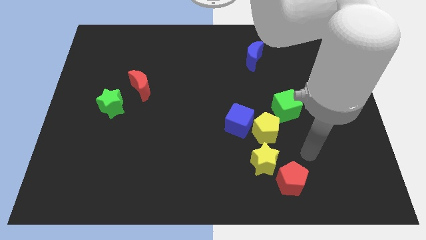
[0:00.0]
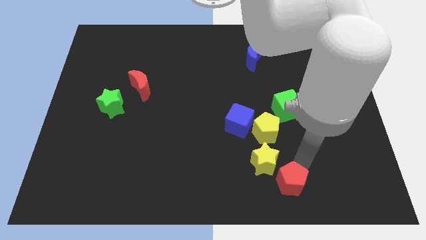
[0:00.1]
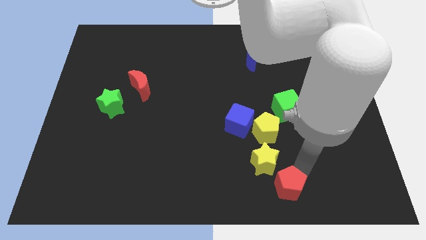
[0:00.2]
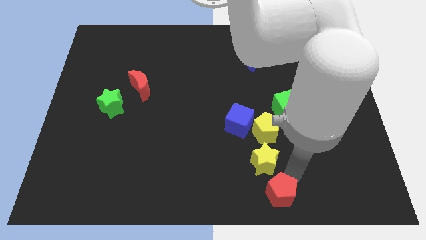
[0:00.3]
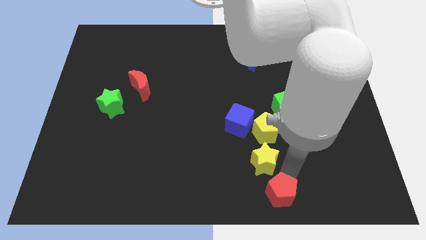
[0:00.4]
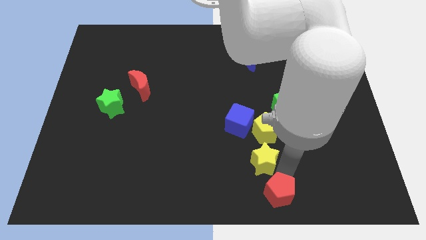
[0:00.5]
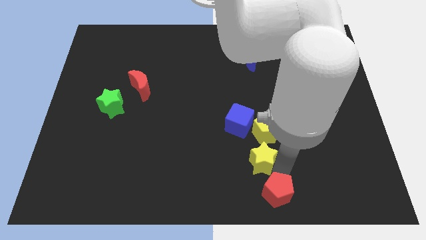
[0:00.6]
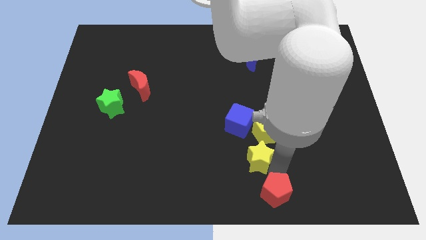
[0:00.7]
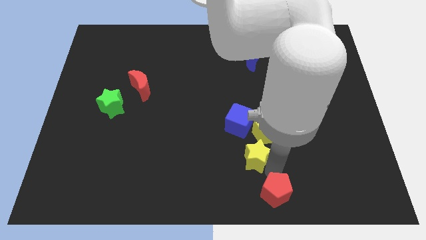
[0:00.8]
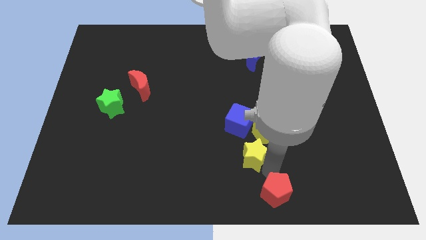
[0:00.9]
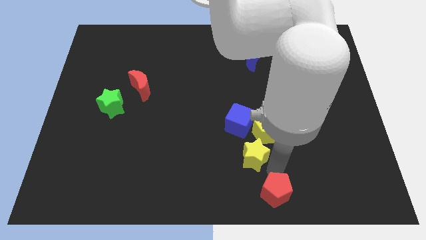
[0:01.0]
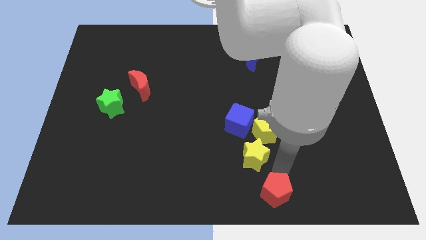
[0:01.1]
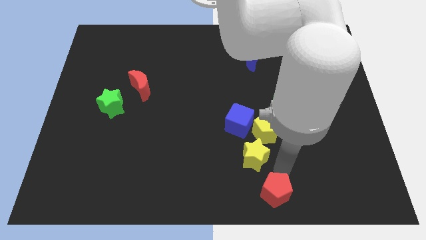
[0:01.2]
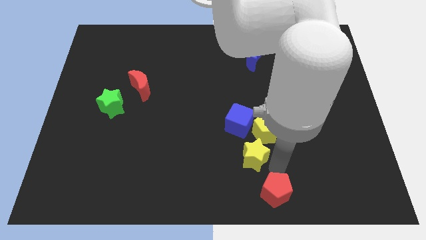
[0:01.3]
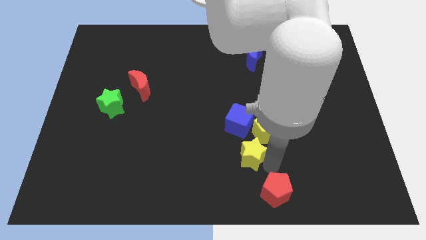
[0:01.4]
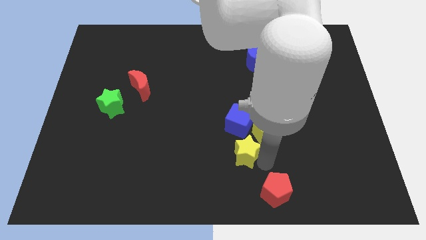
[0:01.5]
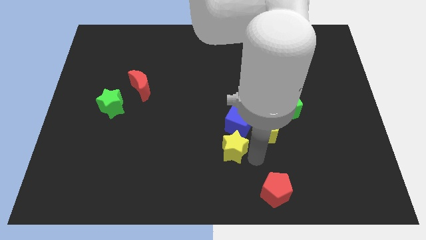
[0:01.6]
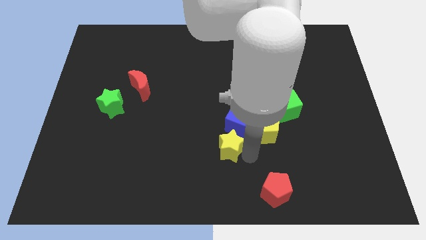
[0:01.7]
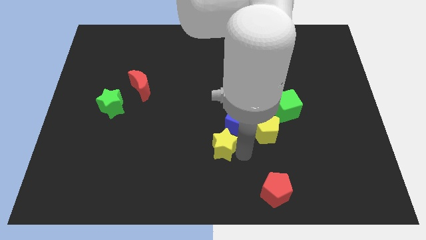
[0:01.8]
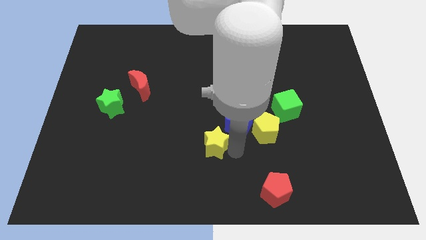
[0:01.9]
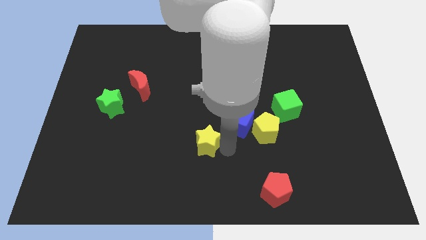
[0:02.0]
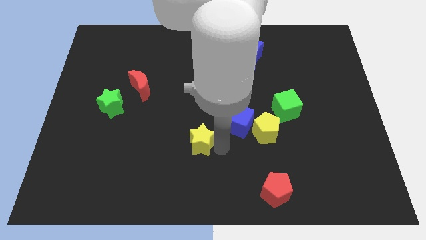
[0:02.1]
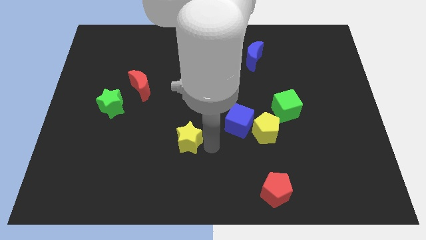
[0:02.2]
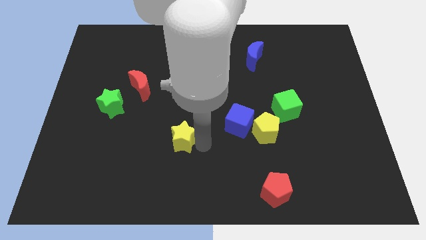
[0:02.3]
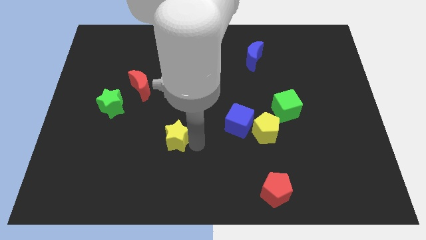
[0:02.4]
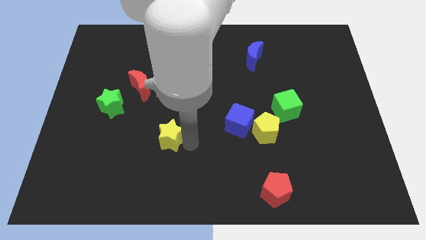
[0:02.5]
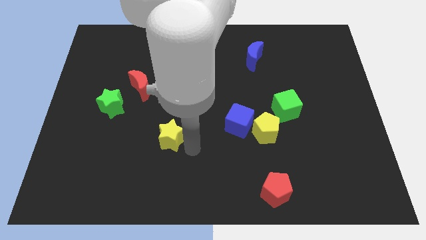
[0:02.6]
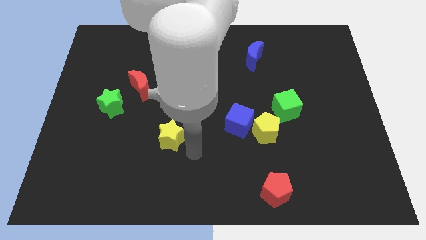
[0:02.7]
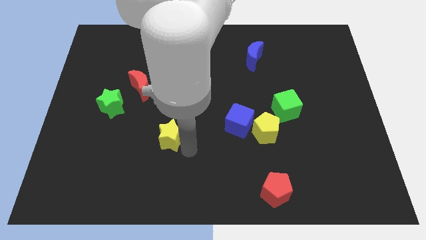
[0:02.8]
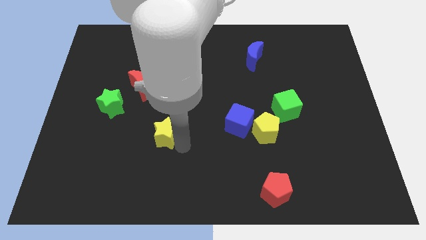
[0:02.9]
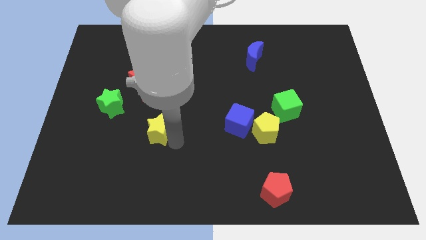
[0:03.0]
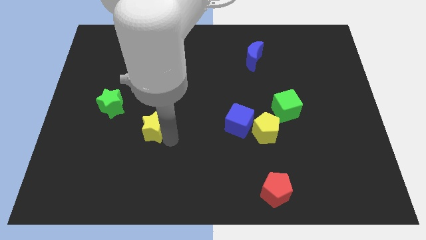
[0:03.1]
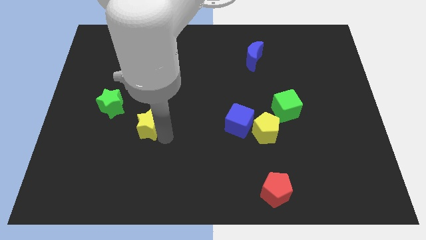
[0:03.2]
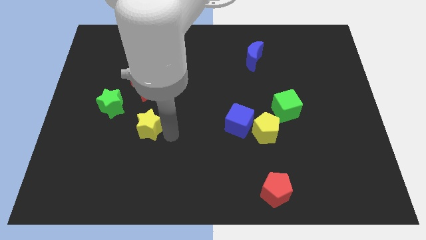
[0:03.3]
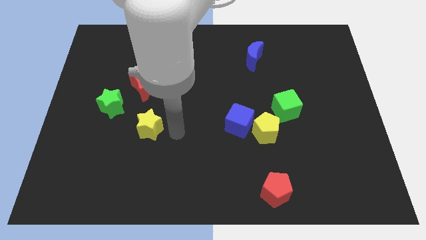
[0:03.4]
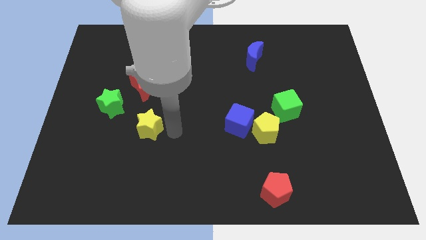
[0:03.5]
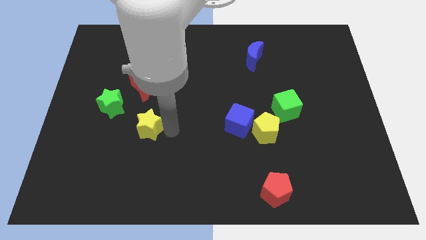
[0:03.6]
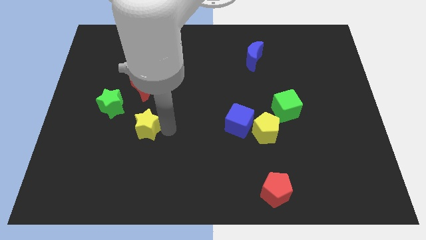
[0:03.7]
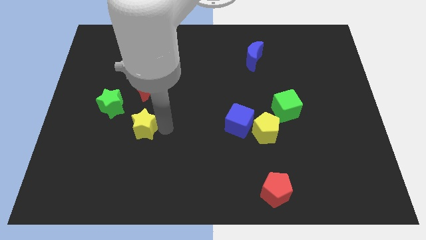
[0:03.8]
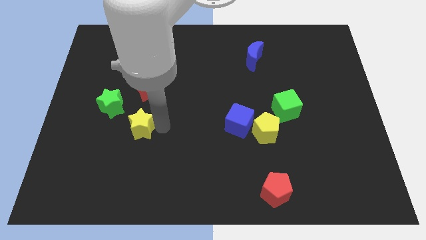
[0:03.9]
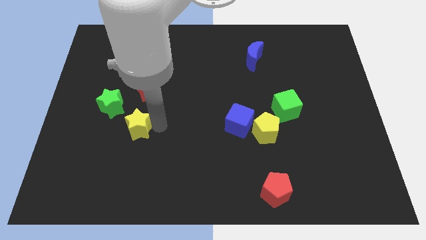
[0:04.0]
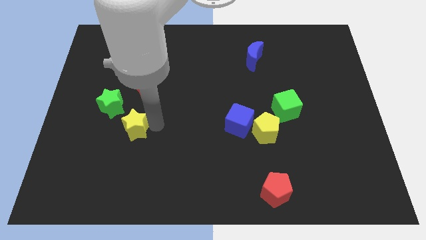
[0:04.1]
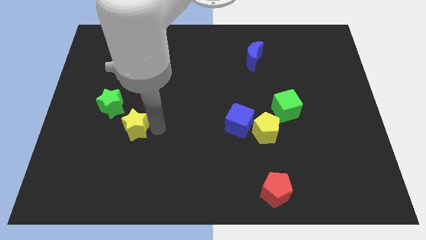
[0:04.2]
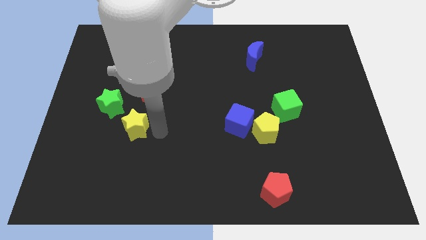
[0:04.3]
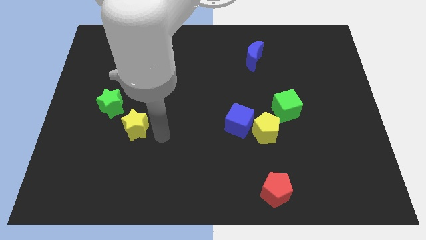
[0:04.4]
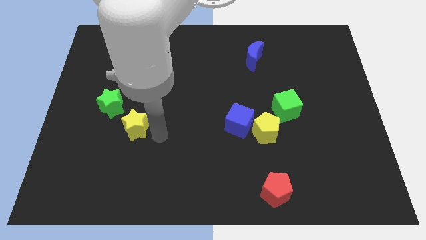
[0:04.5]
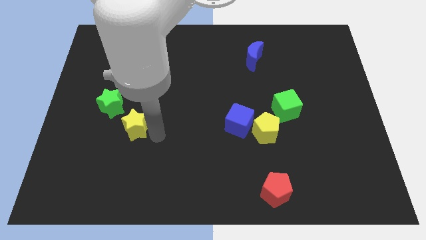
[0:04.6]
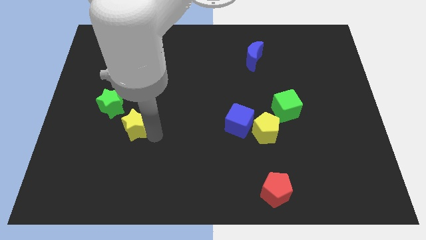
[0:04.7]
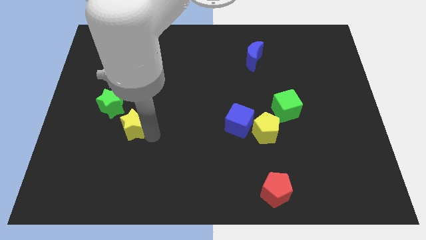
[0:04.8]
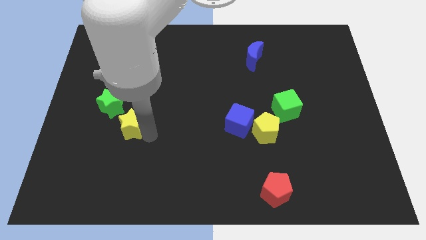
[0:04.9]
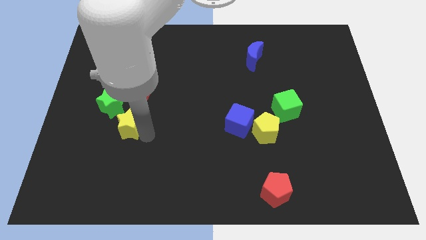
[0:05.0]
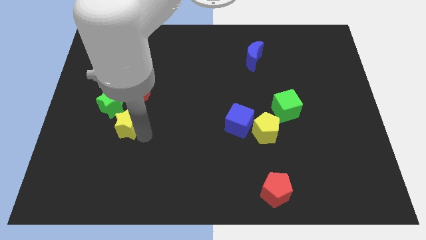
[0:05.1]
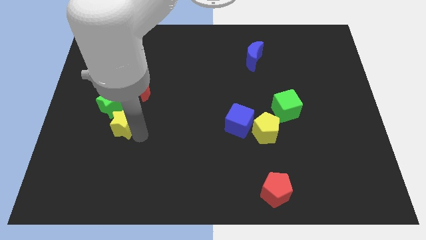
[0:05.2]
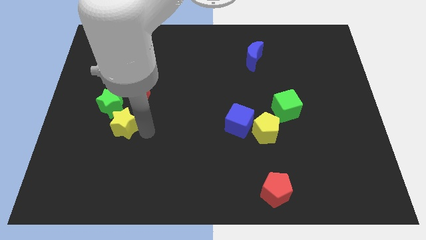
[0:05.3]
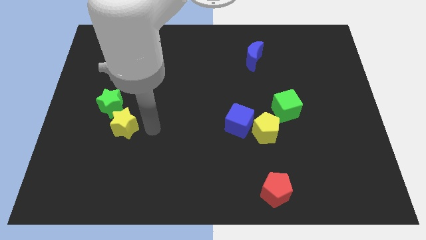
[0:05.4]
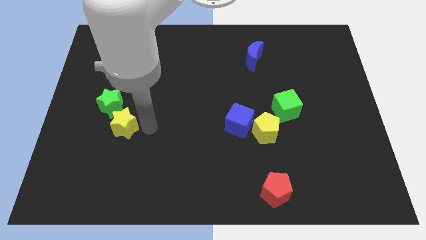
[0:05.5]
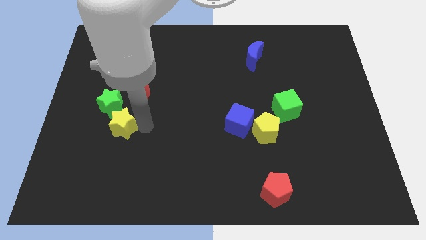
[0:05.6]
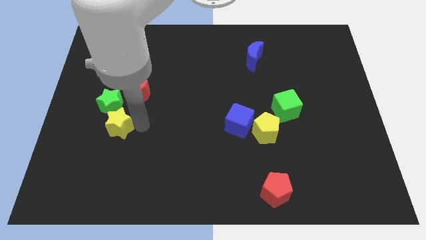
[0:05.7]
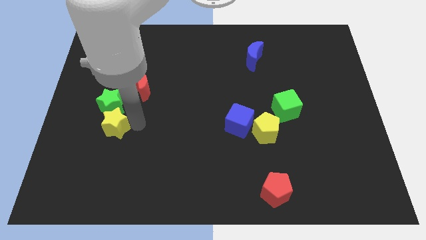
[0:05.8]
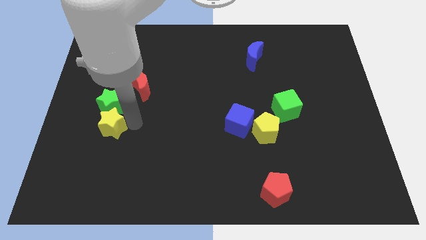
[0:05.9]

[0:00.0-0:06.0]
put the yellow star to the bottom left side of the green star

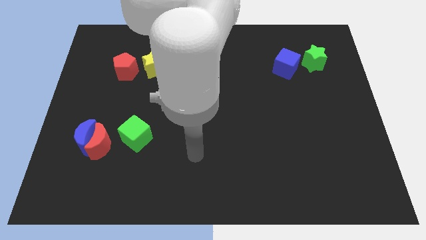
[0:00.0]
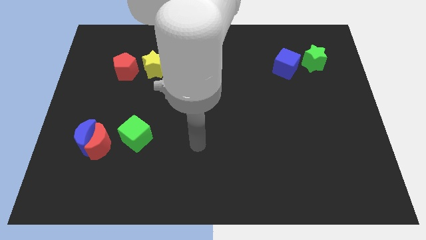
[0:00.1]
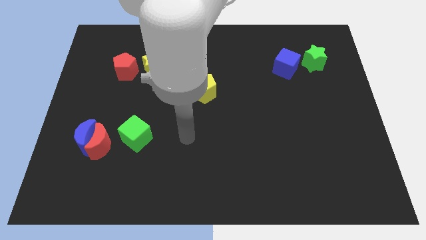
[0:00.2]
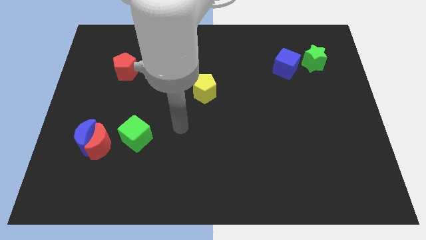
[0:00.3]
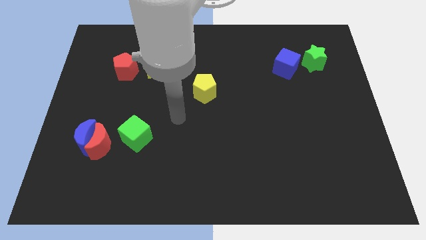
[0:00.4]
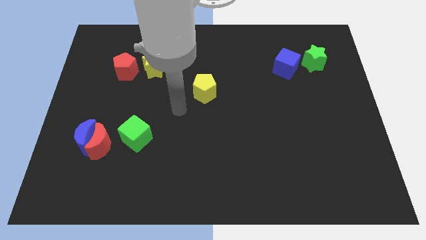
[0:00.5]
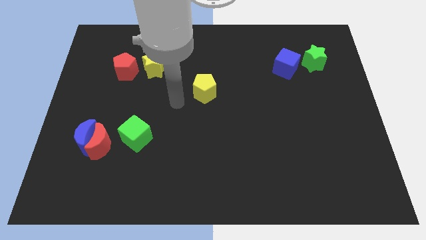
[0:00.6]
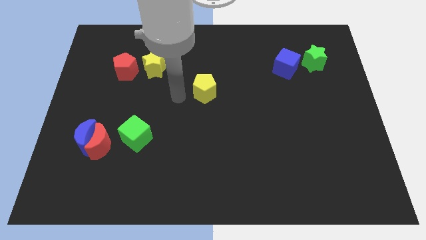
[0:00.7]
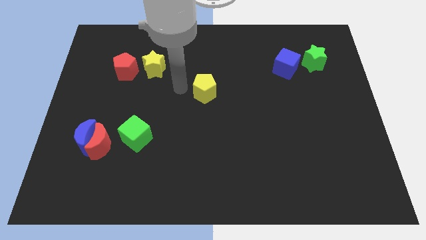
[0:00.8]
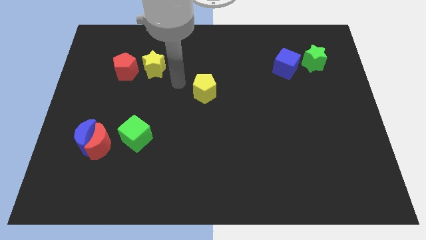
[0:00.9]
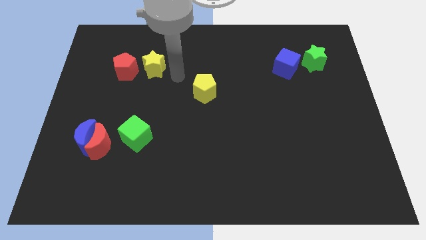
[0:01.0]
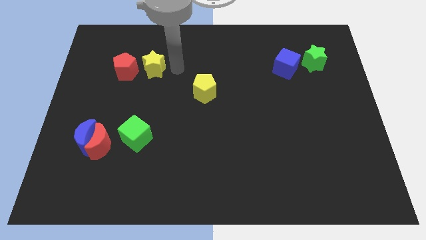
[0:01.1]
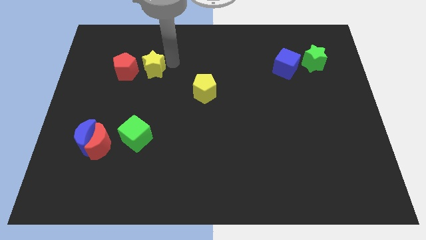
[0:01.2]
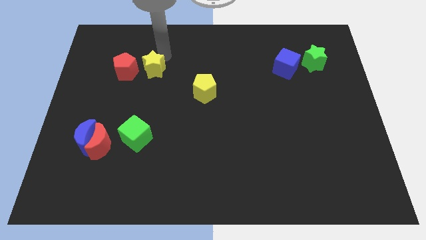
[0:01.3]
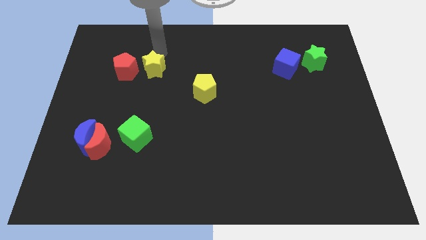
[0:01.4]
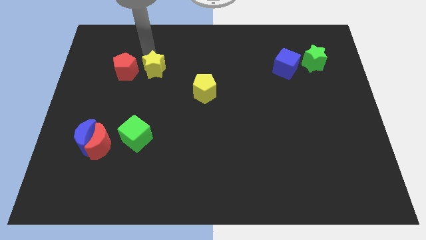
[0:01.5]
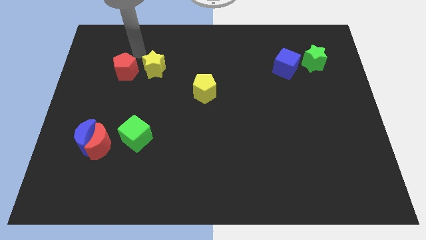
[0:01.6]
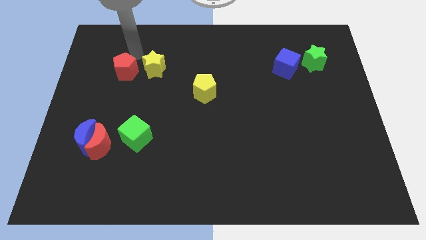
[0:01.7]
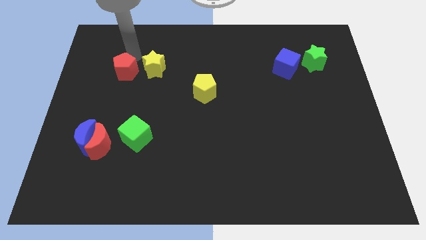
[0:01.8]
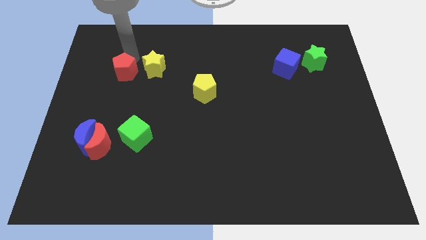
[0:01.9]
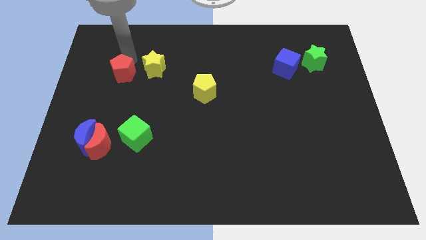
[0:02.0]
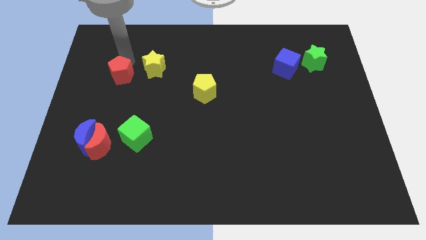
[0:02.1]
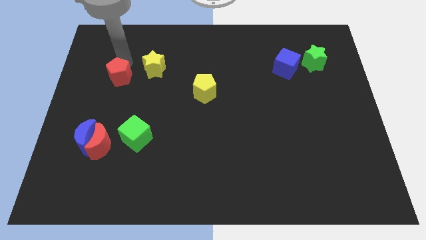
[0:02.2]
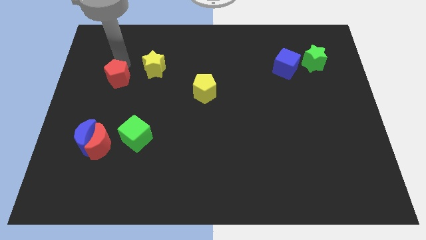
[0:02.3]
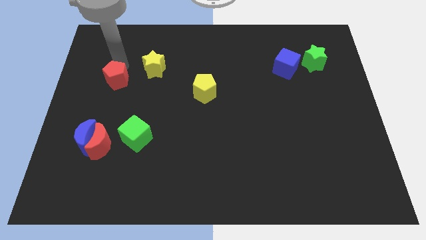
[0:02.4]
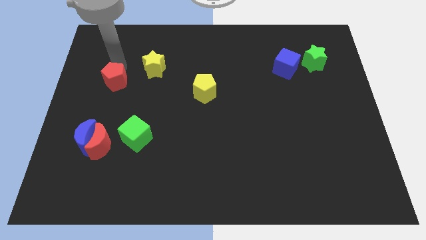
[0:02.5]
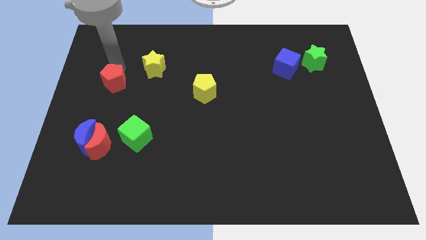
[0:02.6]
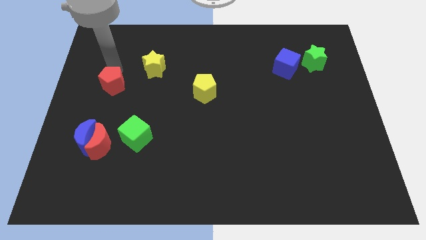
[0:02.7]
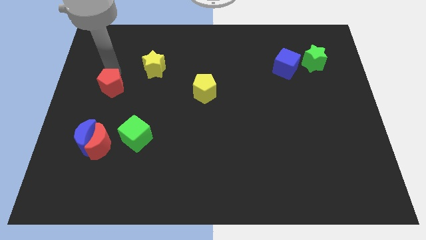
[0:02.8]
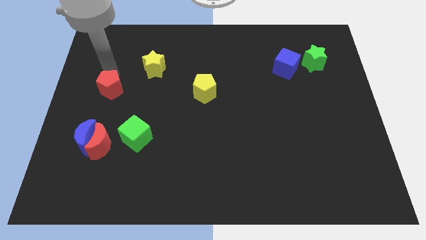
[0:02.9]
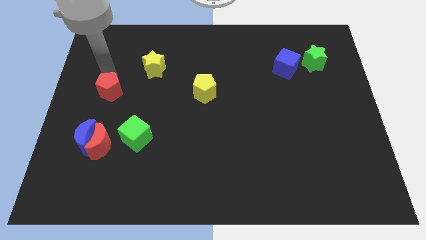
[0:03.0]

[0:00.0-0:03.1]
put the red pentagon to the top of the red moon
